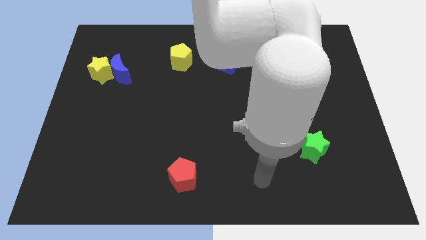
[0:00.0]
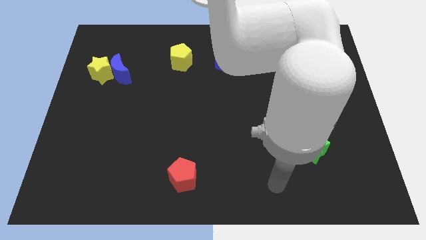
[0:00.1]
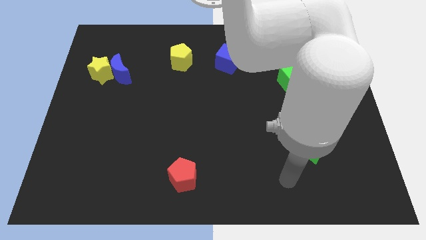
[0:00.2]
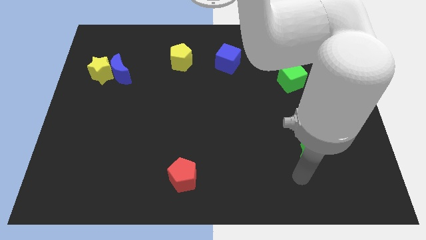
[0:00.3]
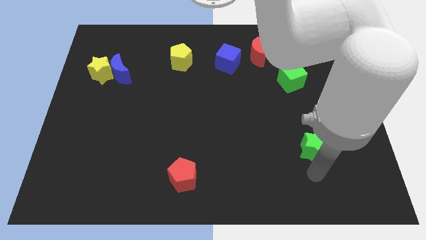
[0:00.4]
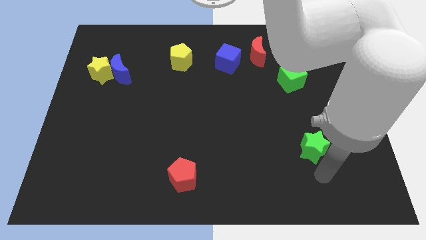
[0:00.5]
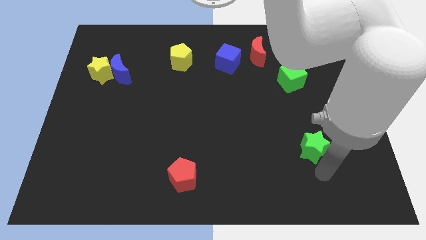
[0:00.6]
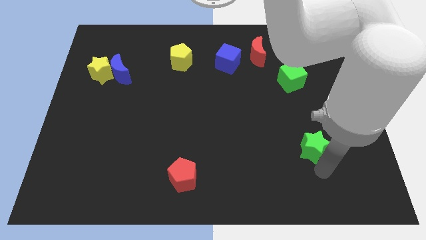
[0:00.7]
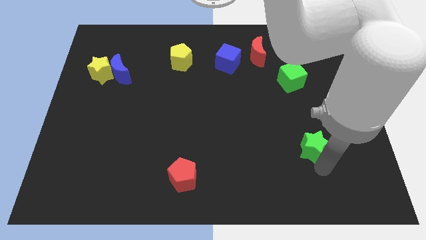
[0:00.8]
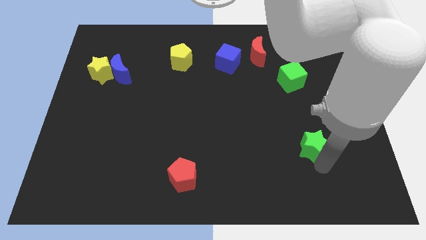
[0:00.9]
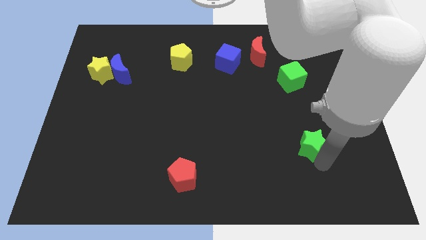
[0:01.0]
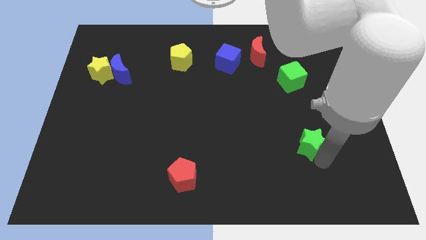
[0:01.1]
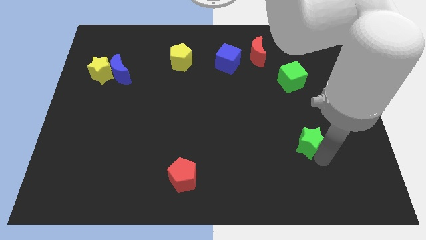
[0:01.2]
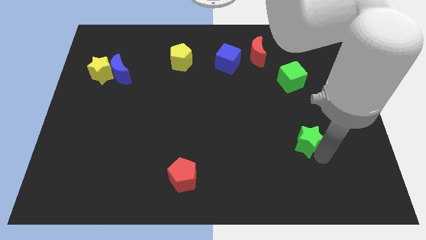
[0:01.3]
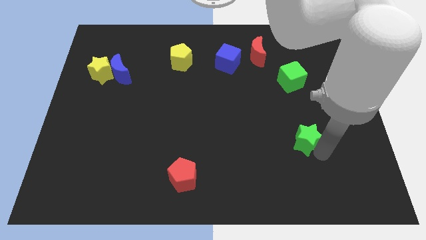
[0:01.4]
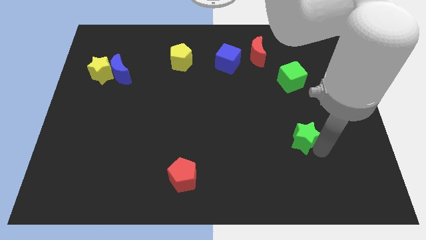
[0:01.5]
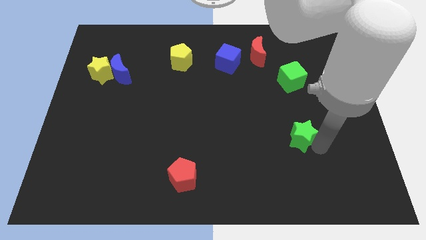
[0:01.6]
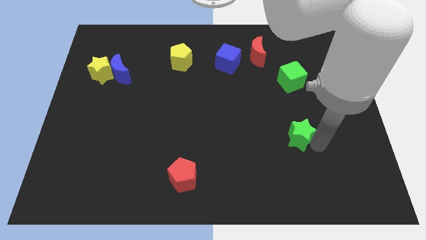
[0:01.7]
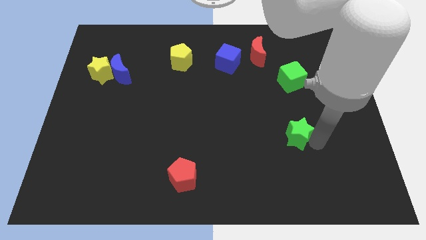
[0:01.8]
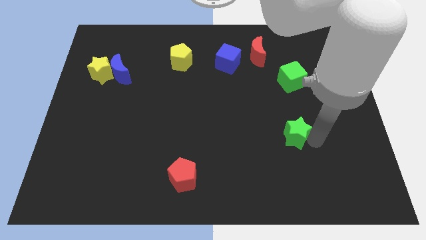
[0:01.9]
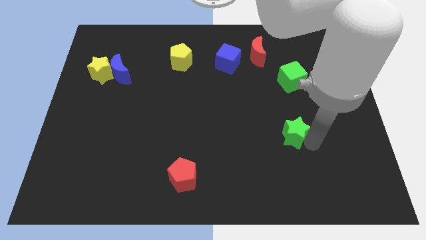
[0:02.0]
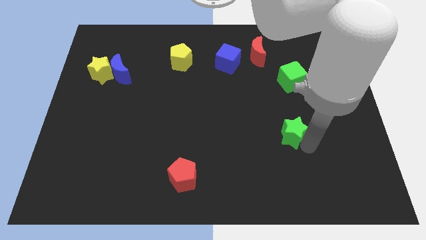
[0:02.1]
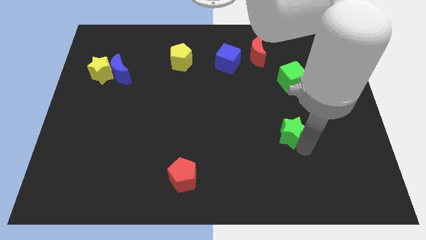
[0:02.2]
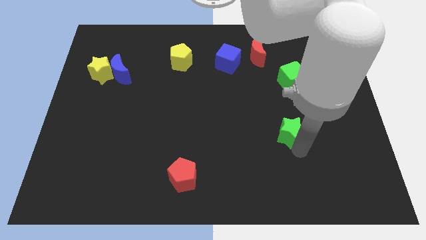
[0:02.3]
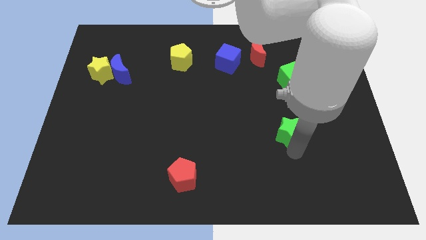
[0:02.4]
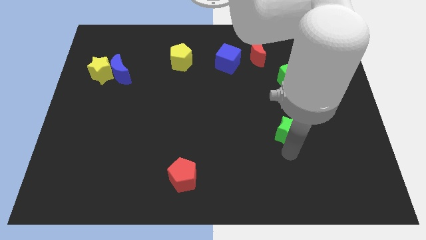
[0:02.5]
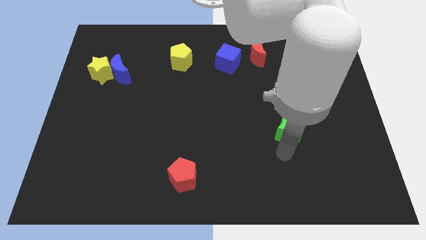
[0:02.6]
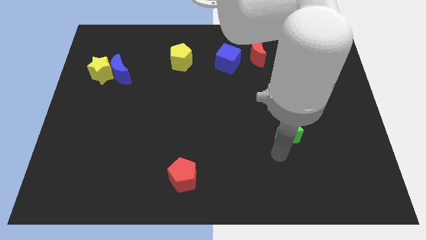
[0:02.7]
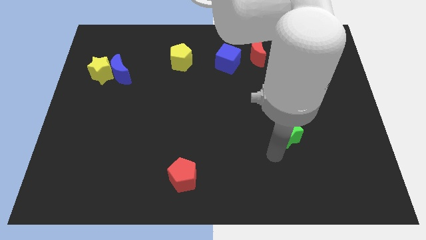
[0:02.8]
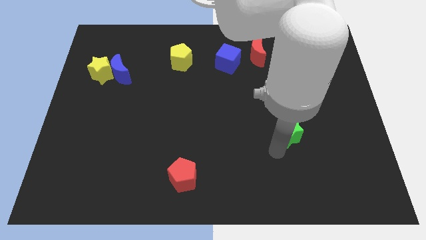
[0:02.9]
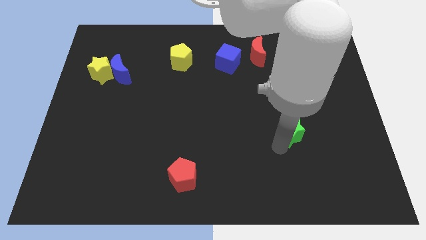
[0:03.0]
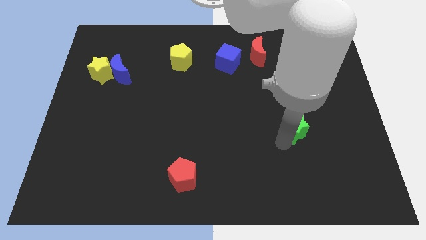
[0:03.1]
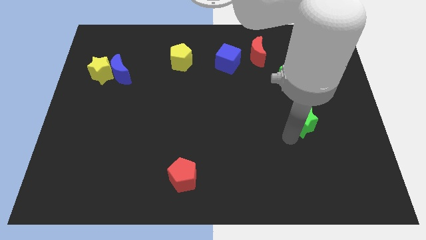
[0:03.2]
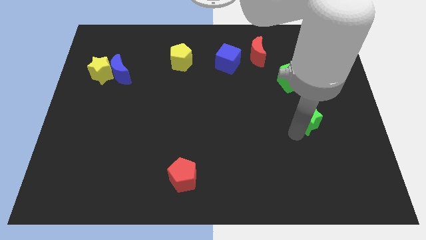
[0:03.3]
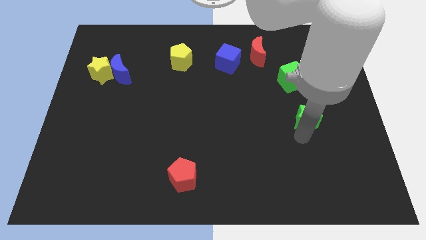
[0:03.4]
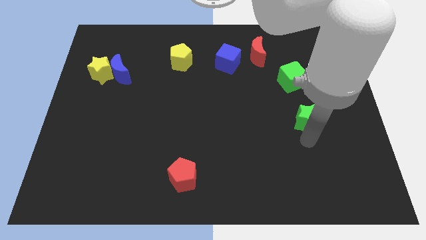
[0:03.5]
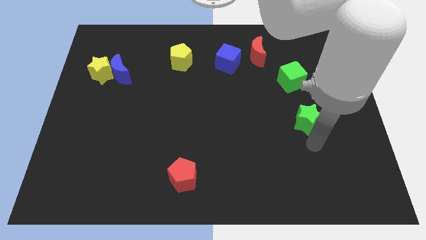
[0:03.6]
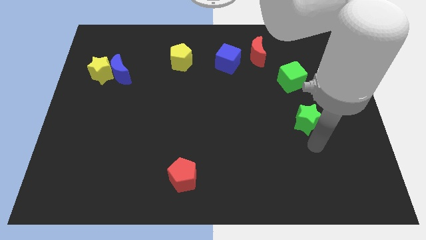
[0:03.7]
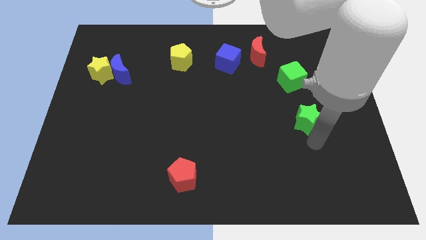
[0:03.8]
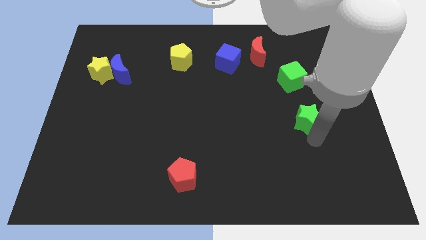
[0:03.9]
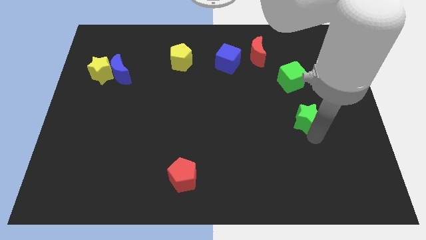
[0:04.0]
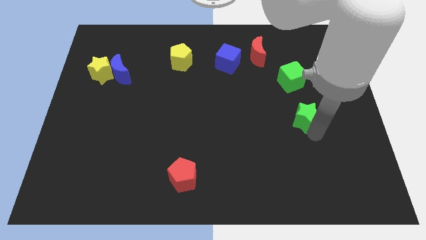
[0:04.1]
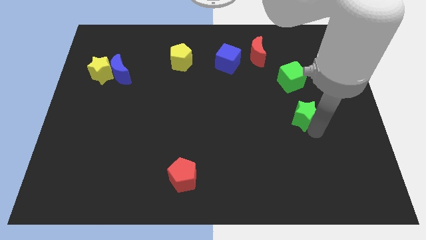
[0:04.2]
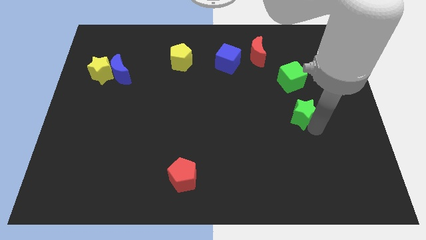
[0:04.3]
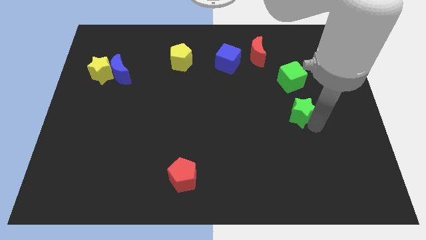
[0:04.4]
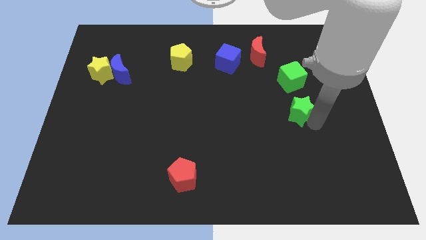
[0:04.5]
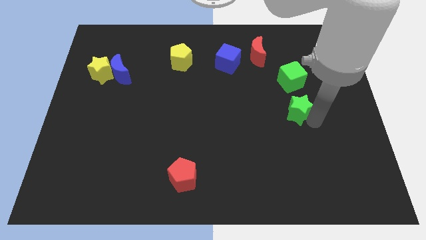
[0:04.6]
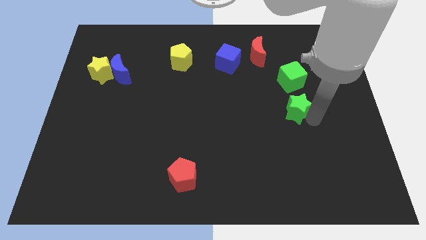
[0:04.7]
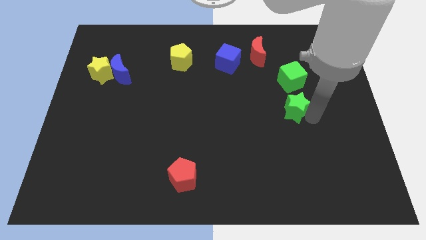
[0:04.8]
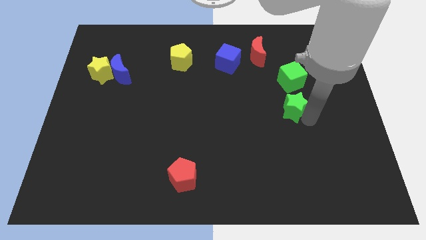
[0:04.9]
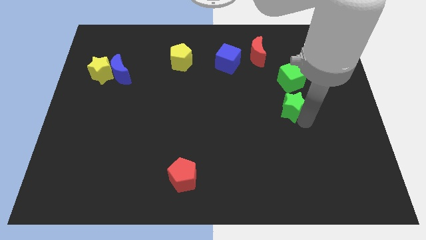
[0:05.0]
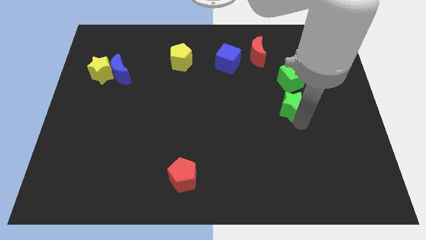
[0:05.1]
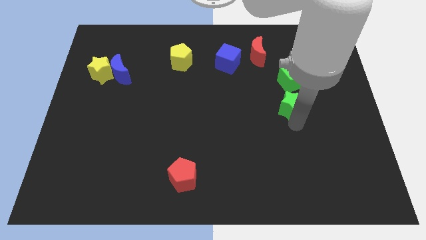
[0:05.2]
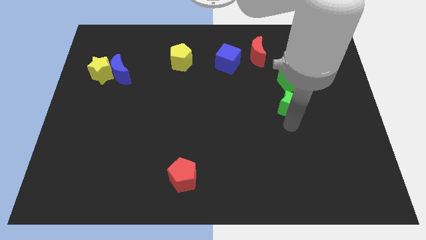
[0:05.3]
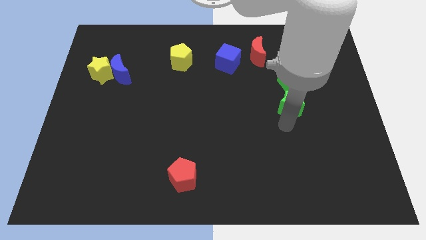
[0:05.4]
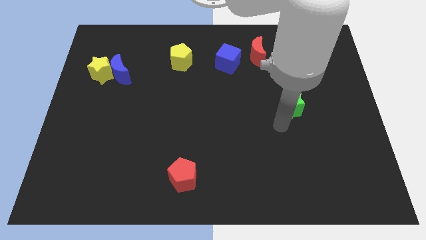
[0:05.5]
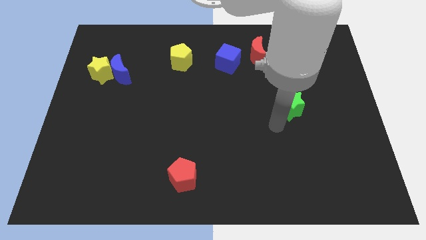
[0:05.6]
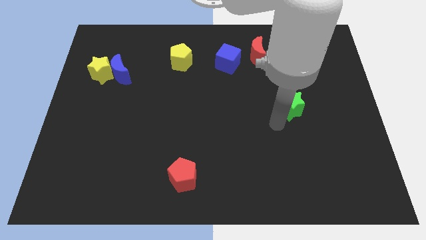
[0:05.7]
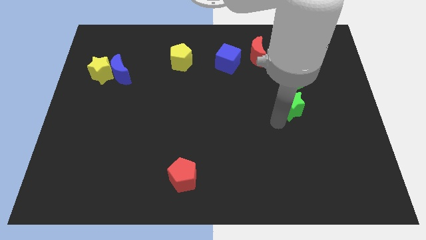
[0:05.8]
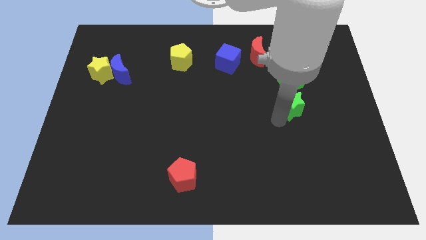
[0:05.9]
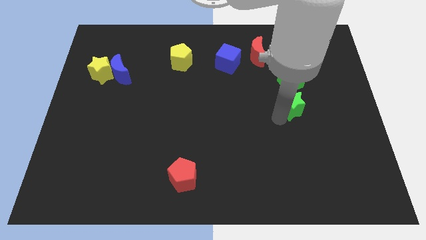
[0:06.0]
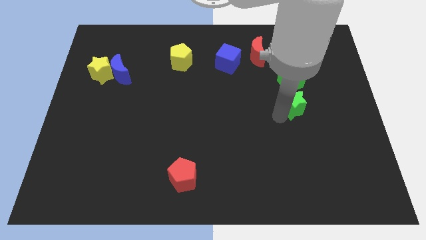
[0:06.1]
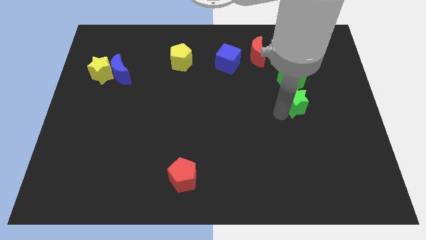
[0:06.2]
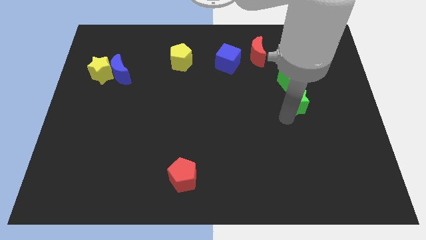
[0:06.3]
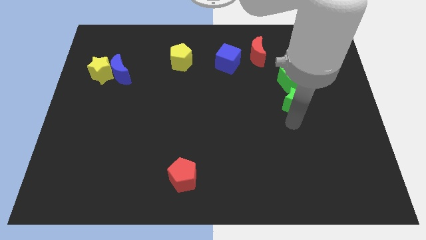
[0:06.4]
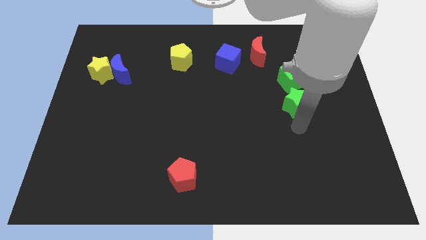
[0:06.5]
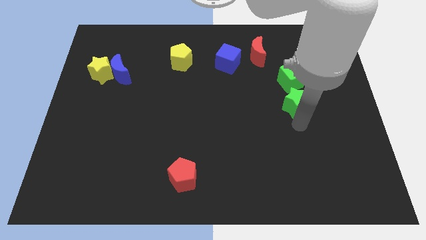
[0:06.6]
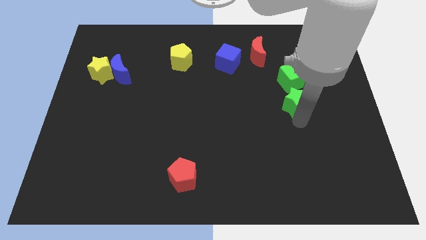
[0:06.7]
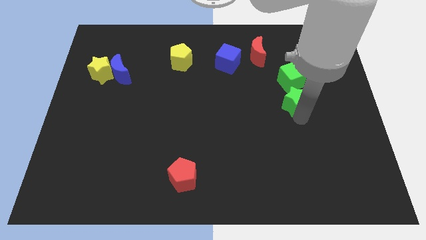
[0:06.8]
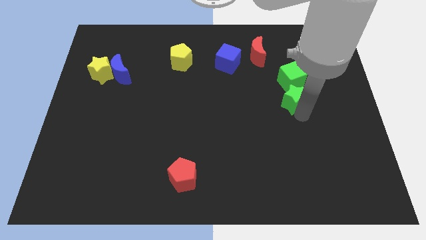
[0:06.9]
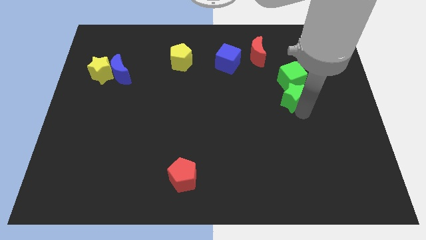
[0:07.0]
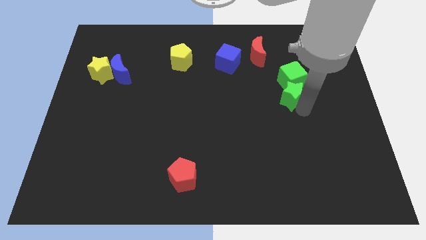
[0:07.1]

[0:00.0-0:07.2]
push the green star close to the green cube

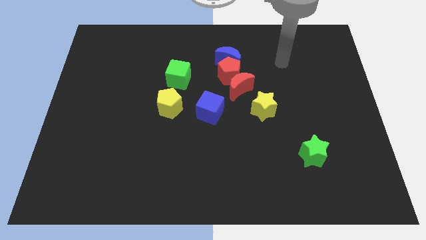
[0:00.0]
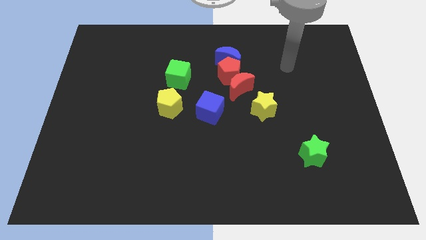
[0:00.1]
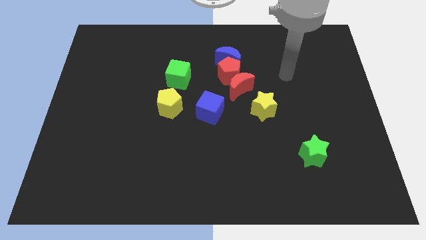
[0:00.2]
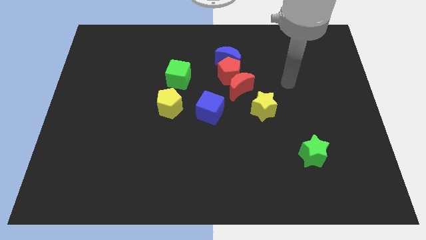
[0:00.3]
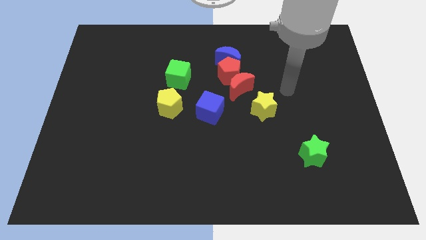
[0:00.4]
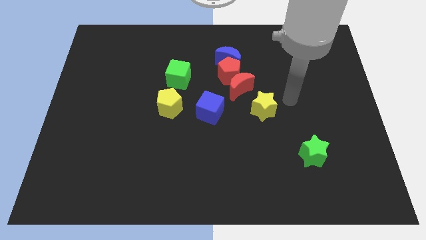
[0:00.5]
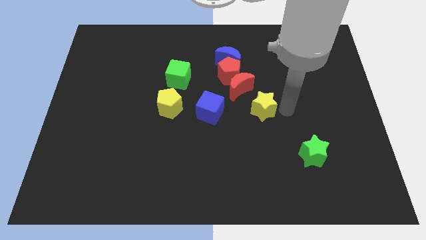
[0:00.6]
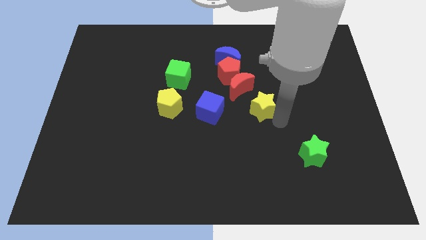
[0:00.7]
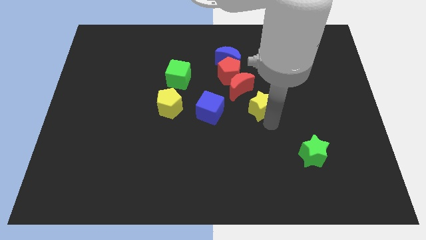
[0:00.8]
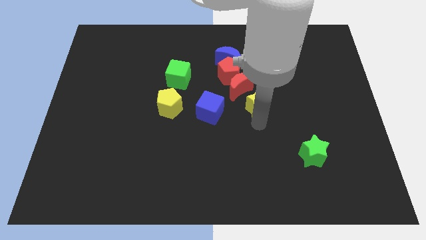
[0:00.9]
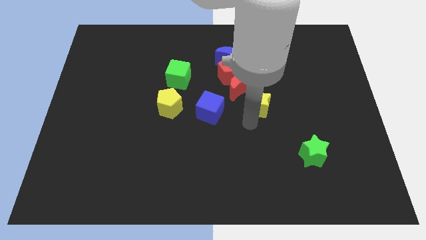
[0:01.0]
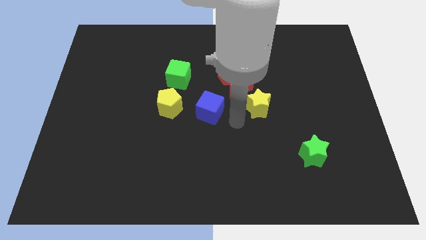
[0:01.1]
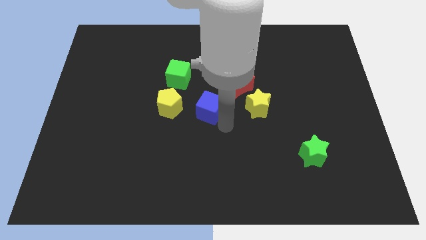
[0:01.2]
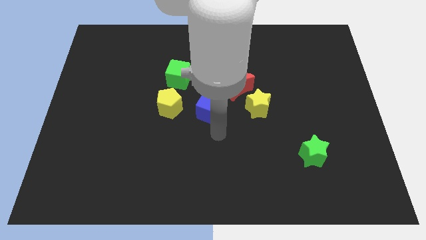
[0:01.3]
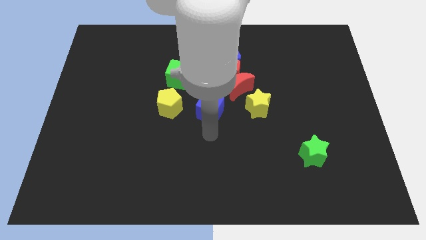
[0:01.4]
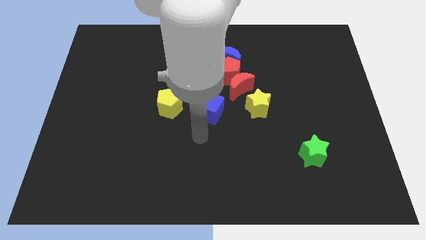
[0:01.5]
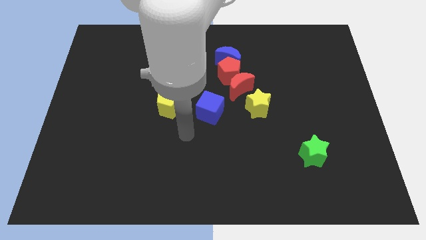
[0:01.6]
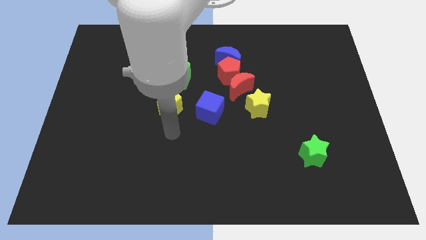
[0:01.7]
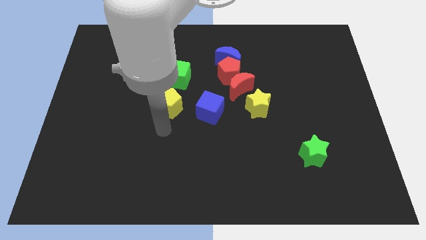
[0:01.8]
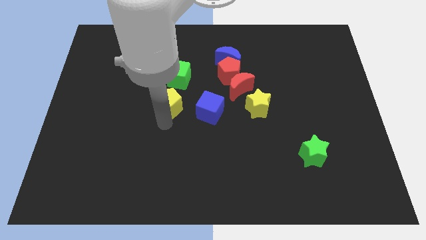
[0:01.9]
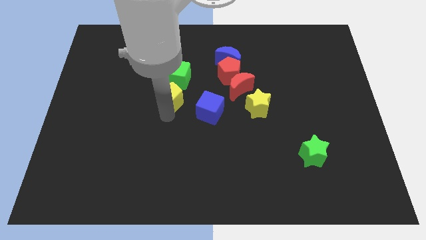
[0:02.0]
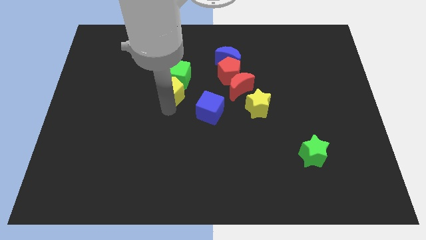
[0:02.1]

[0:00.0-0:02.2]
move the yellow pentagon towards the green cube
